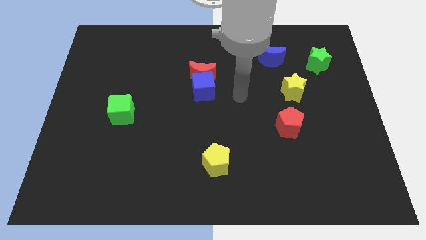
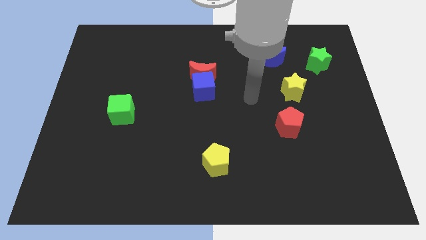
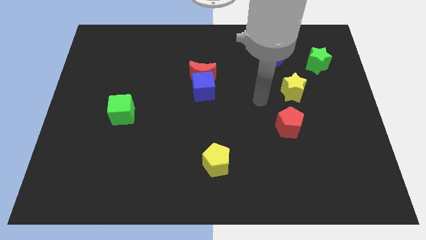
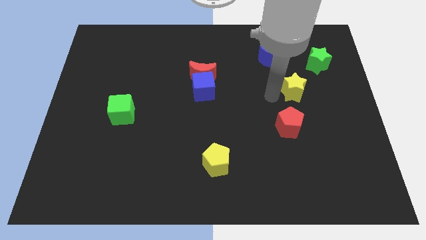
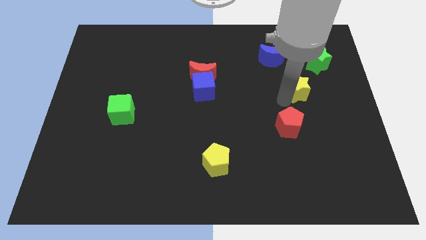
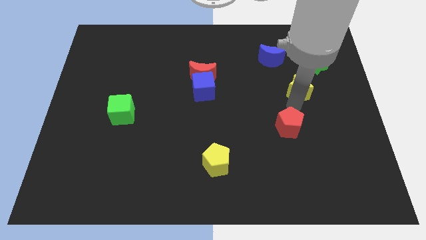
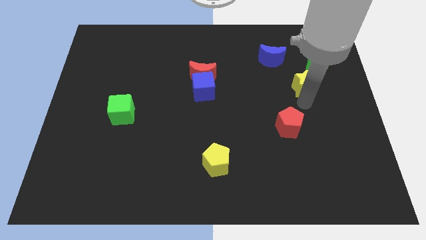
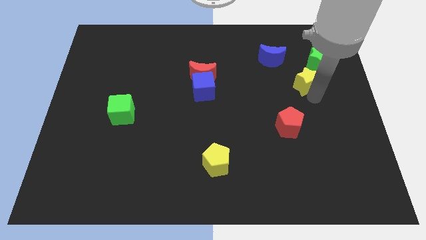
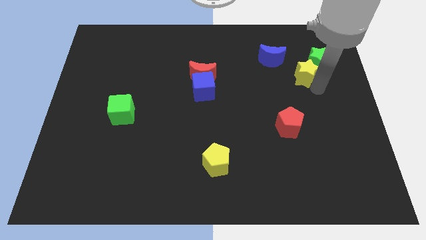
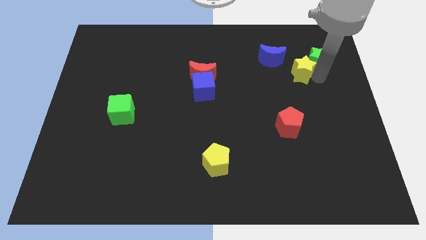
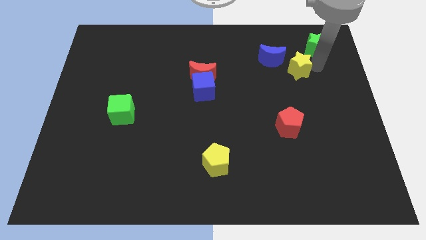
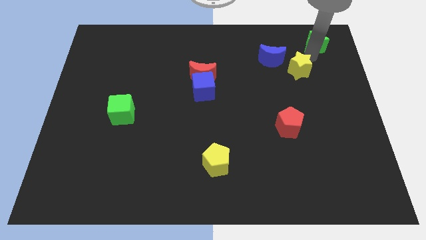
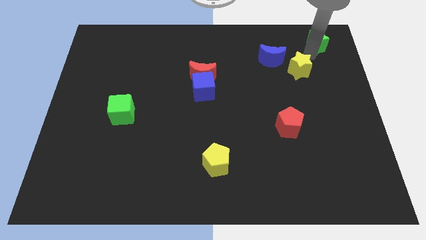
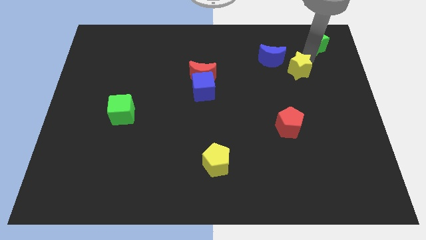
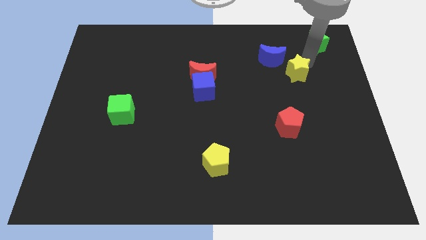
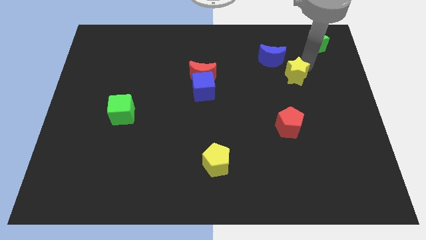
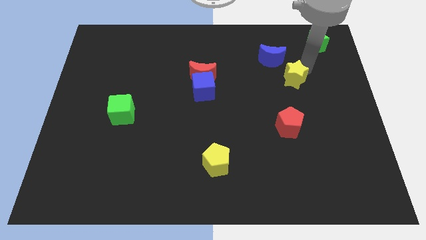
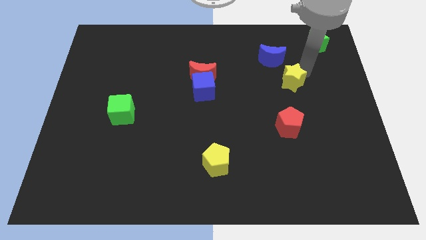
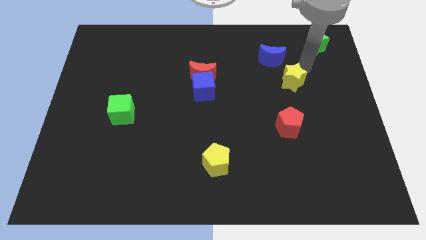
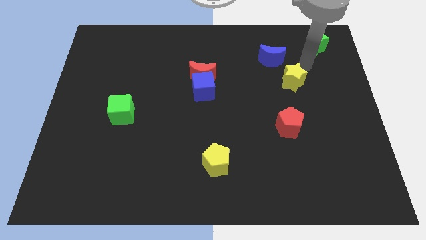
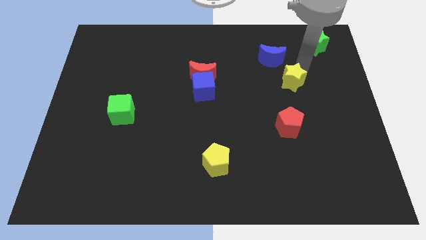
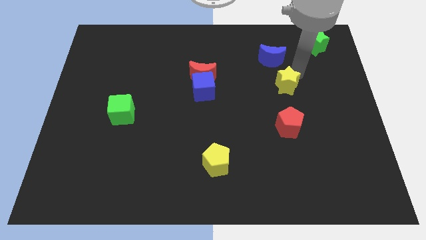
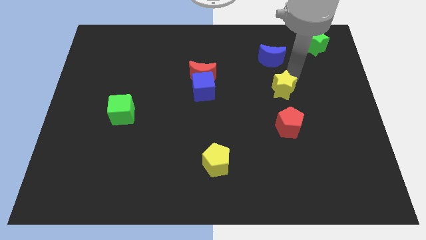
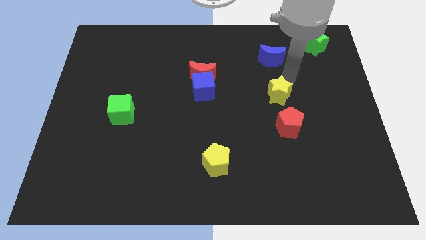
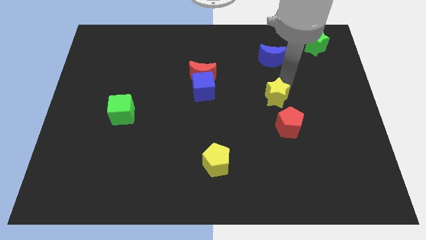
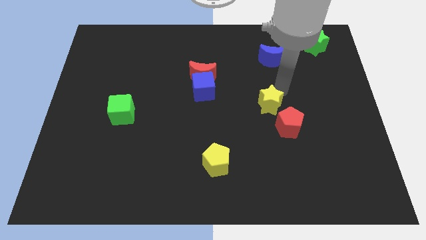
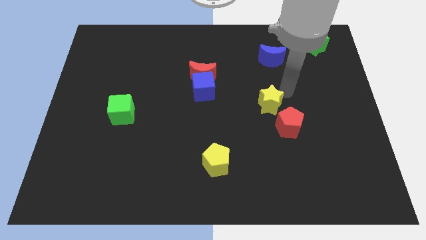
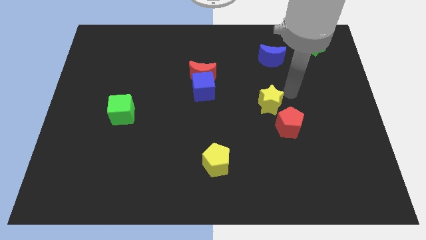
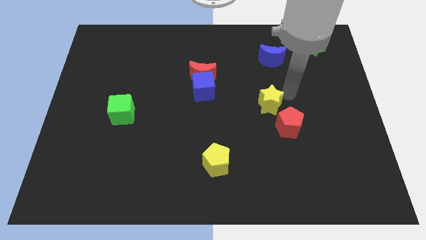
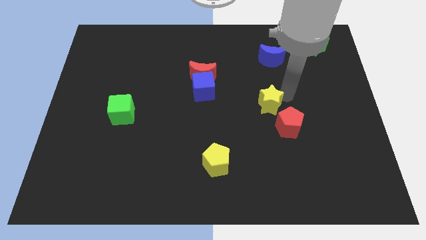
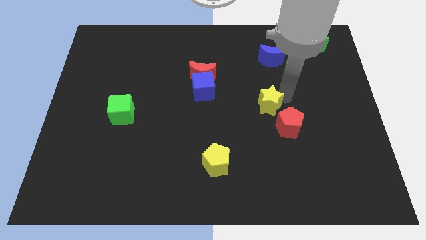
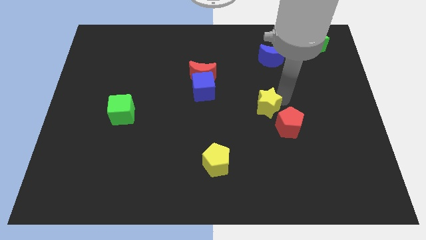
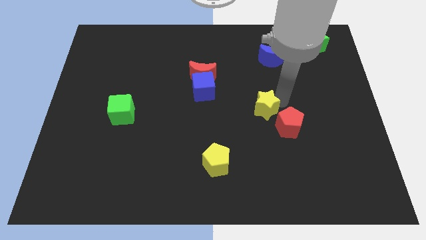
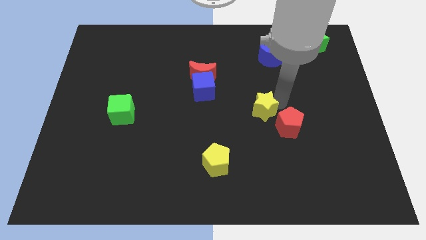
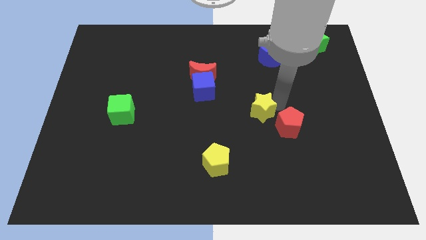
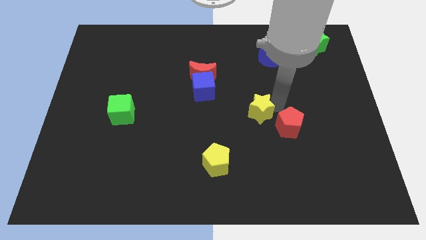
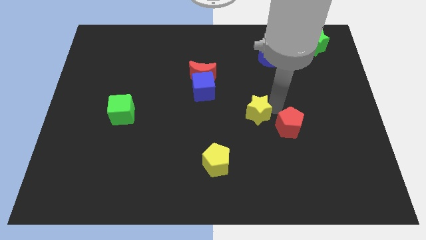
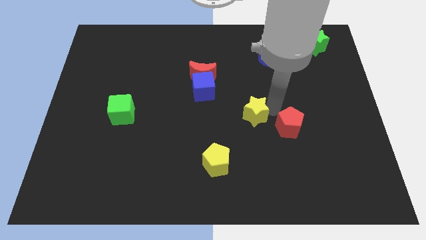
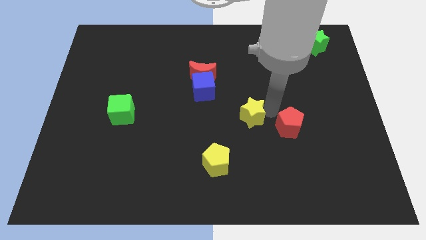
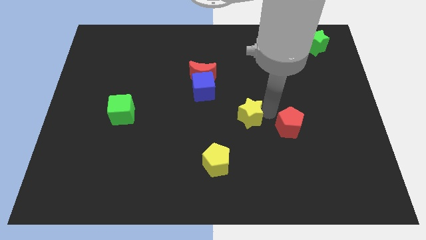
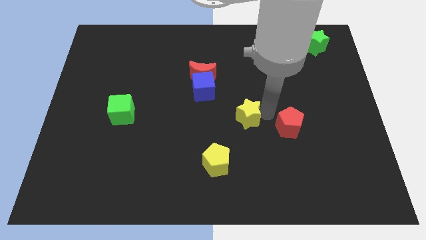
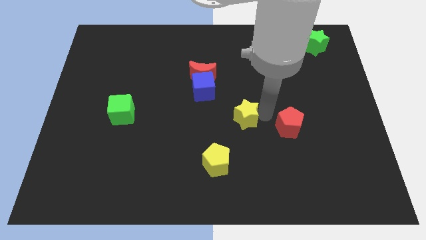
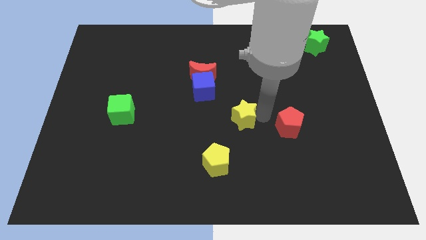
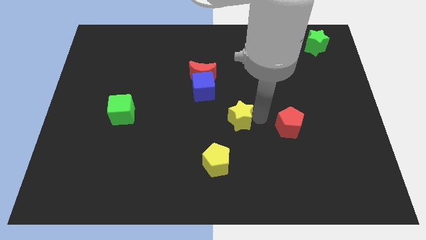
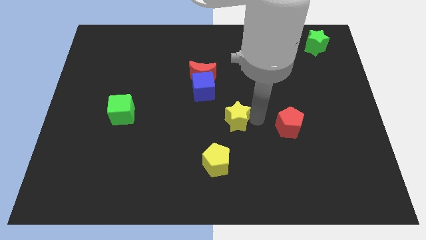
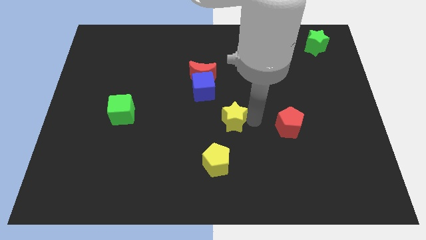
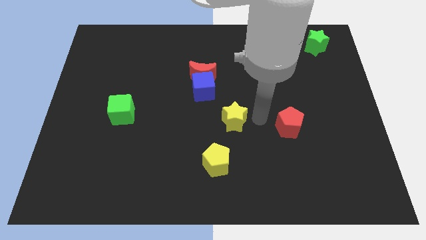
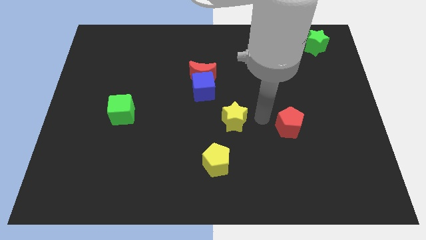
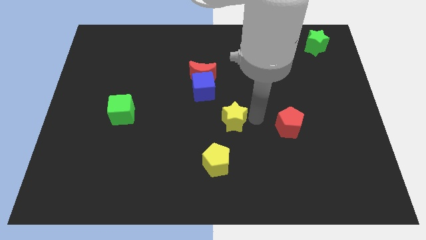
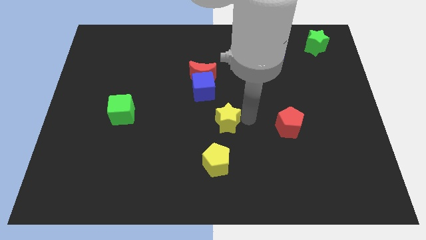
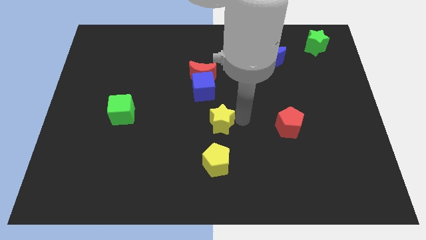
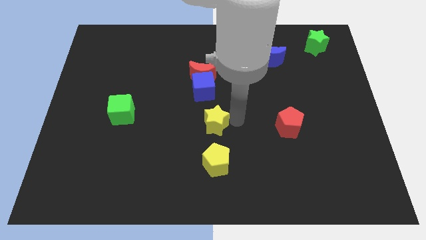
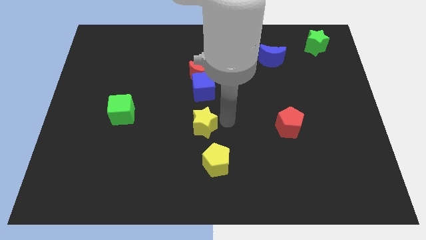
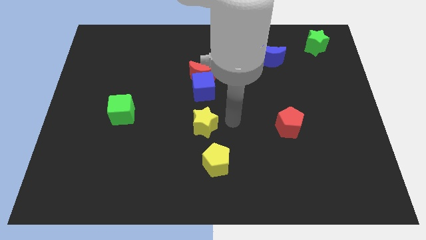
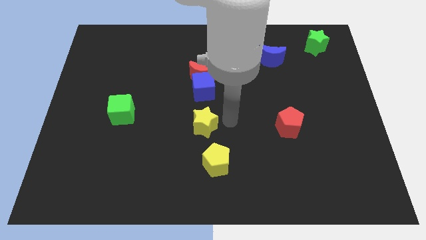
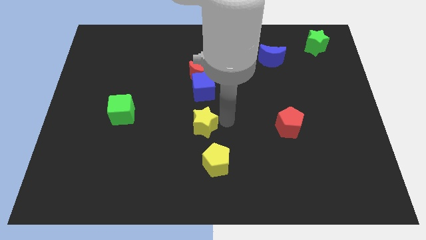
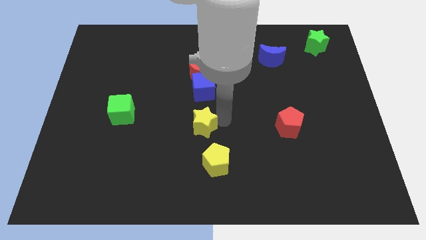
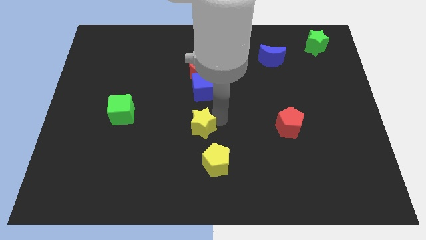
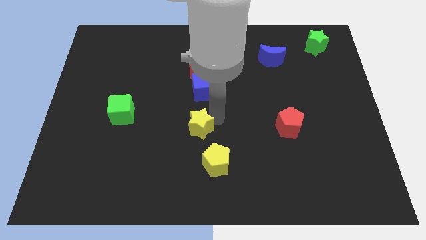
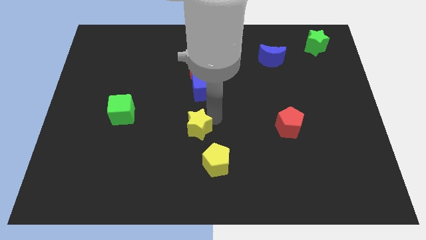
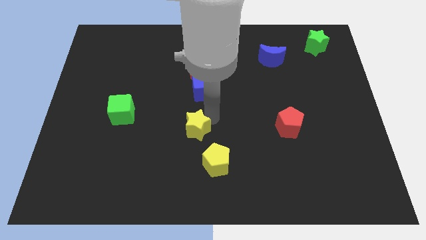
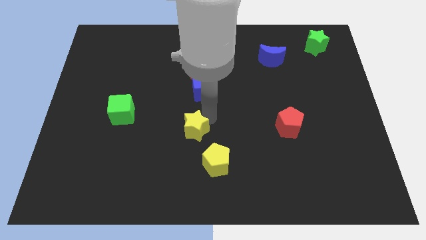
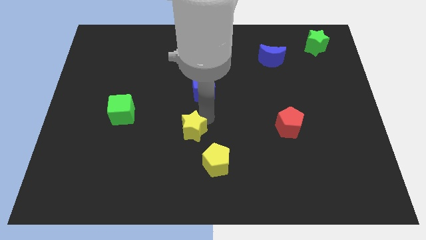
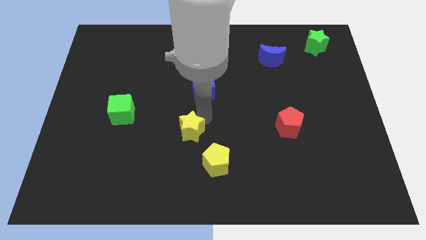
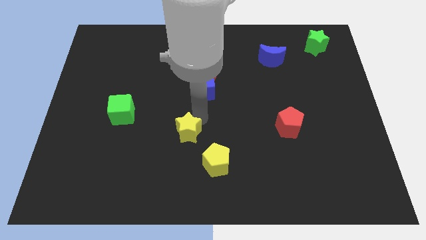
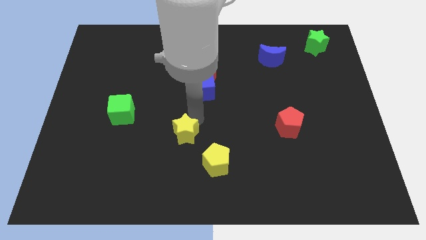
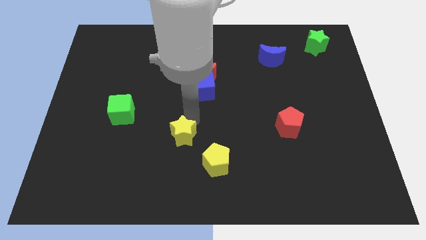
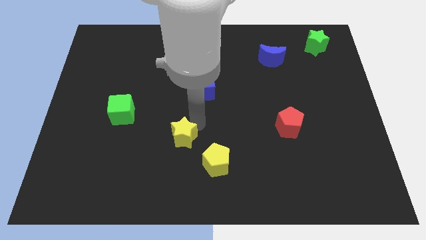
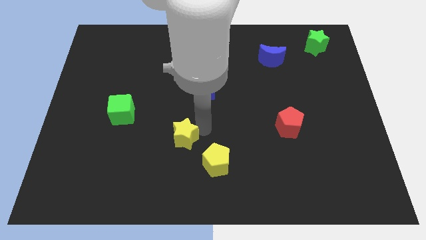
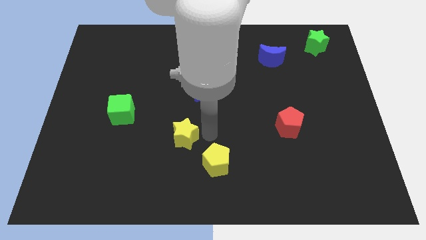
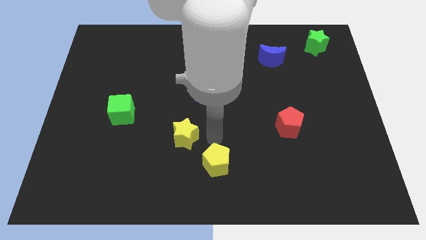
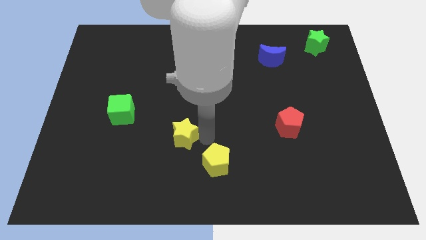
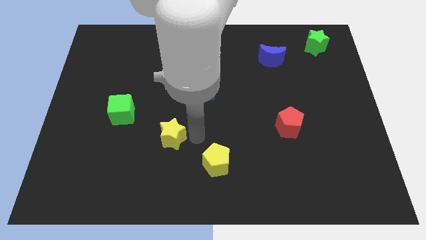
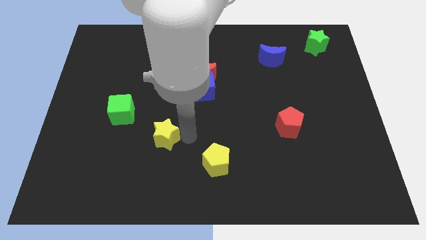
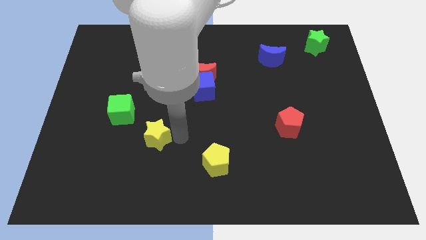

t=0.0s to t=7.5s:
push the yellow star diagonally down and to the right of the green cube
